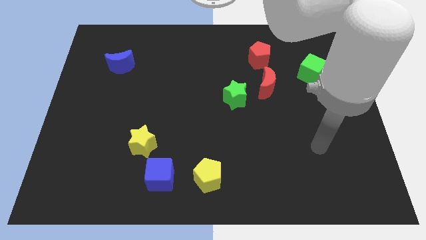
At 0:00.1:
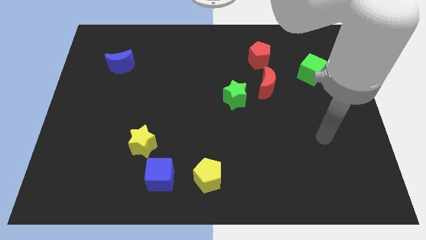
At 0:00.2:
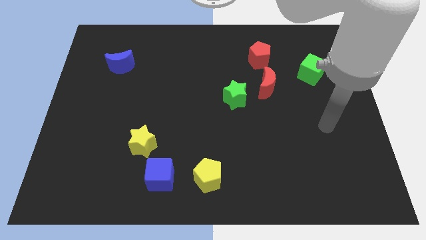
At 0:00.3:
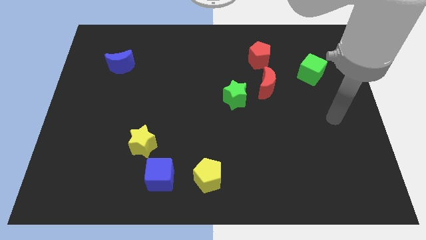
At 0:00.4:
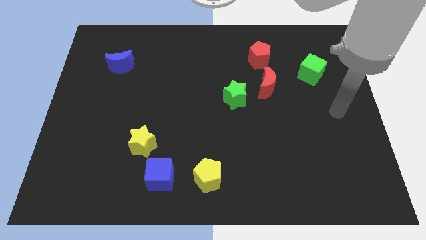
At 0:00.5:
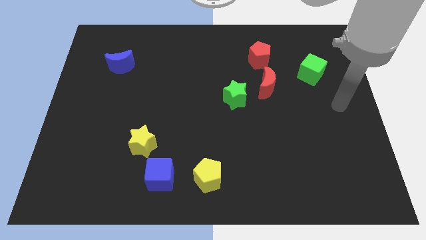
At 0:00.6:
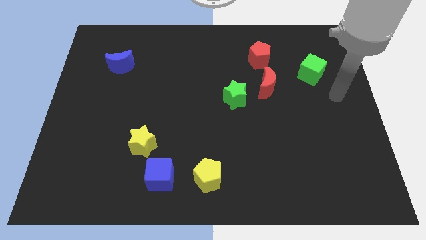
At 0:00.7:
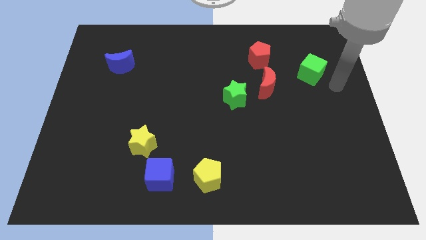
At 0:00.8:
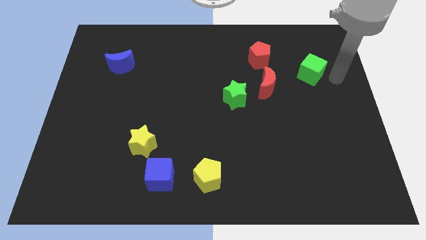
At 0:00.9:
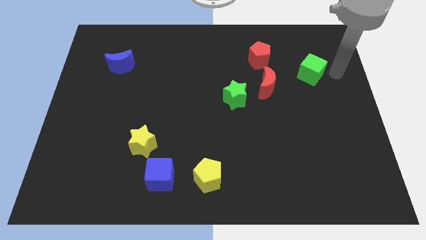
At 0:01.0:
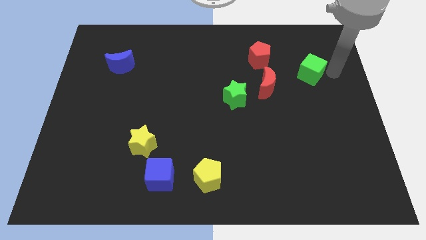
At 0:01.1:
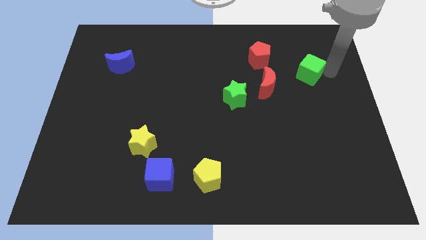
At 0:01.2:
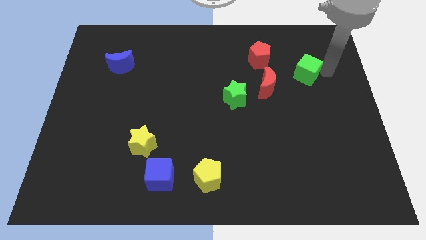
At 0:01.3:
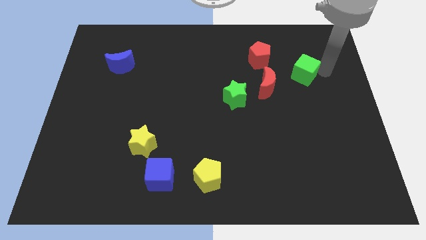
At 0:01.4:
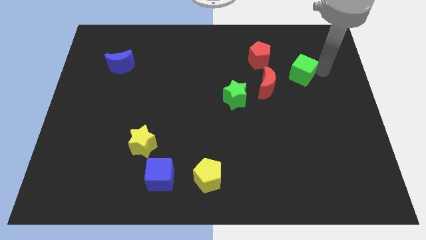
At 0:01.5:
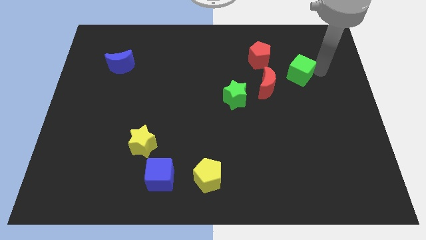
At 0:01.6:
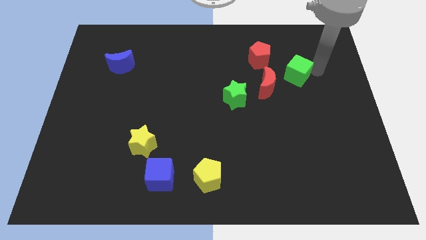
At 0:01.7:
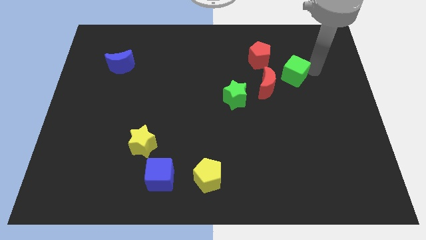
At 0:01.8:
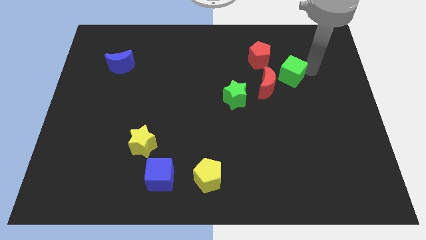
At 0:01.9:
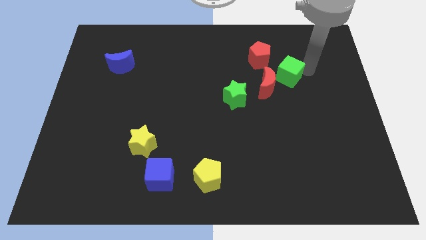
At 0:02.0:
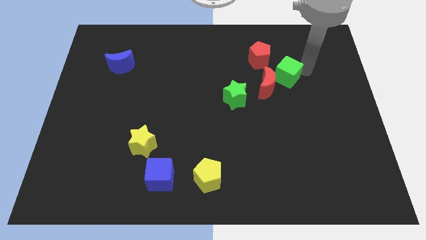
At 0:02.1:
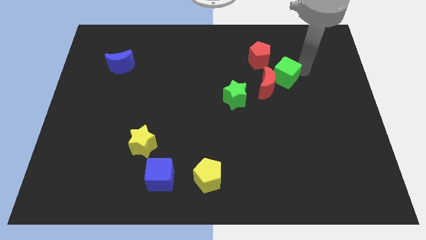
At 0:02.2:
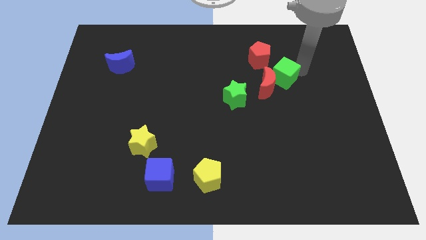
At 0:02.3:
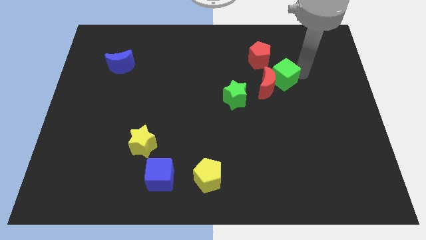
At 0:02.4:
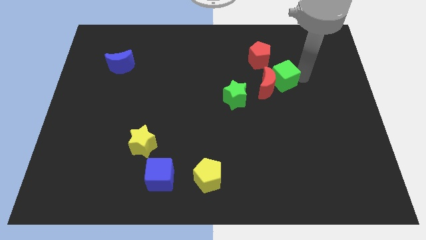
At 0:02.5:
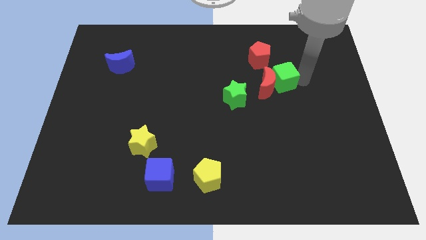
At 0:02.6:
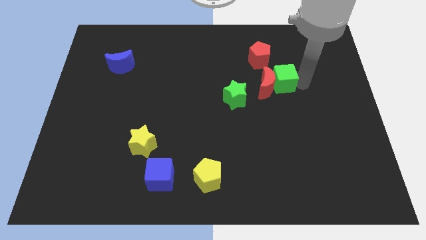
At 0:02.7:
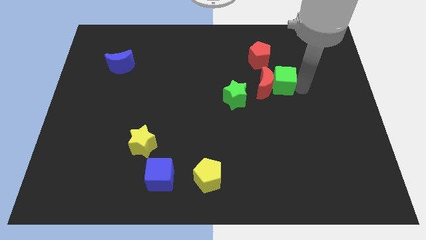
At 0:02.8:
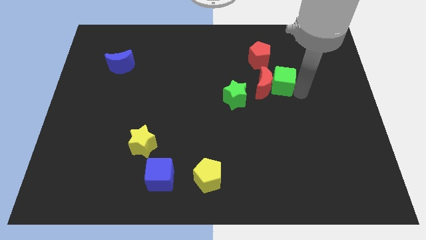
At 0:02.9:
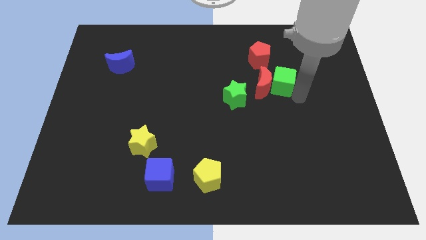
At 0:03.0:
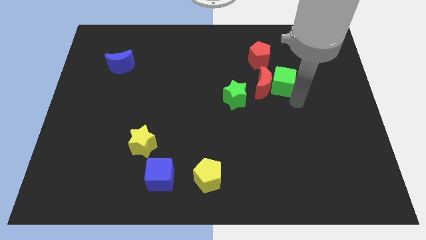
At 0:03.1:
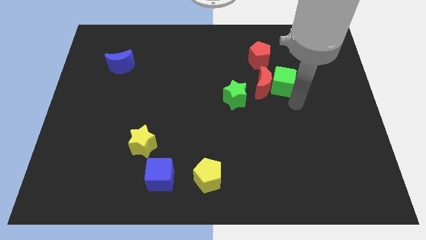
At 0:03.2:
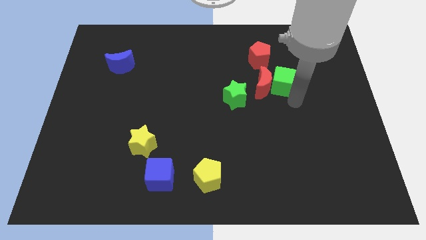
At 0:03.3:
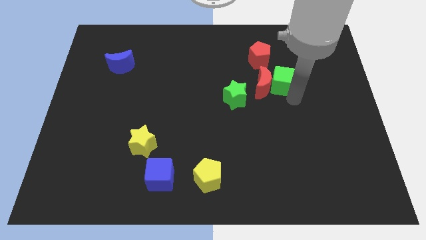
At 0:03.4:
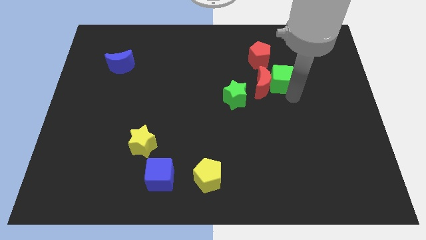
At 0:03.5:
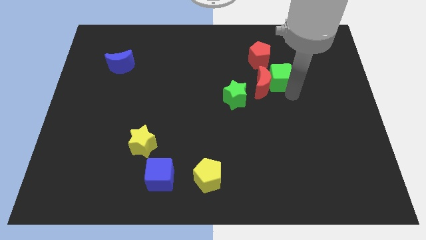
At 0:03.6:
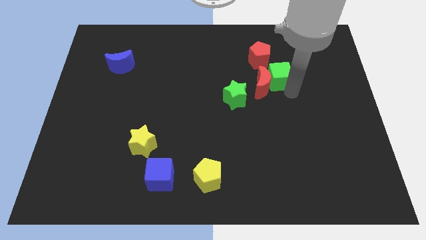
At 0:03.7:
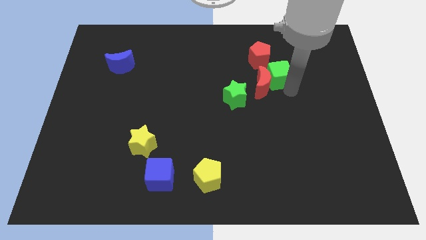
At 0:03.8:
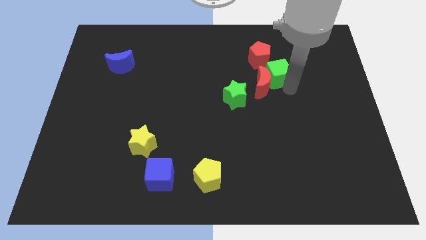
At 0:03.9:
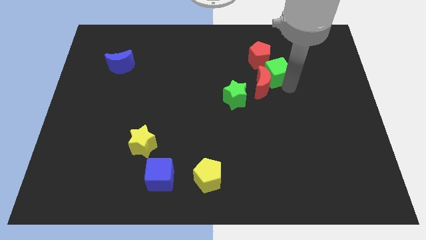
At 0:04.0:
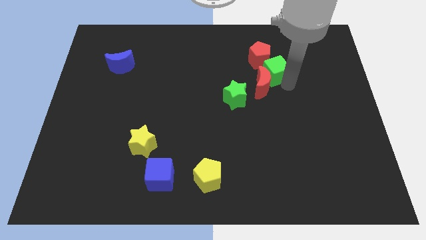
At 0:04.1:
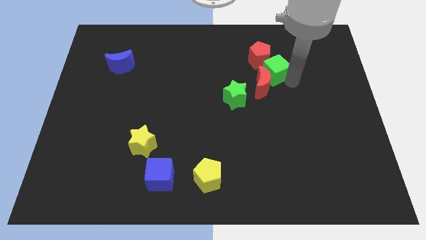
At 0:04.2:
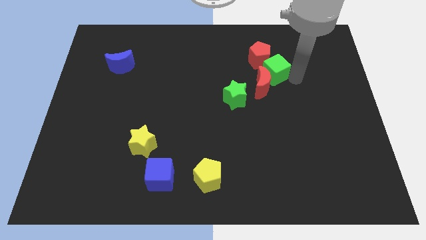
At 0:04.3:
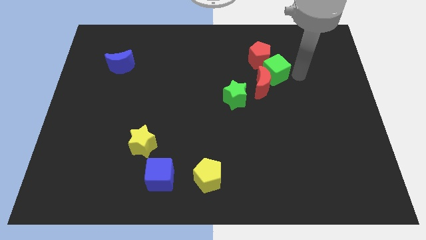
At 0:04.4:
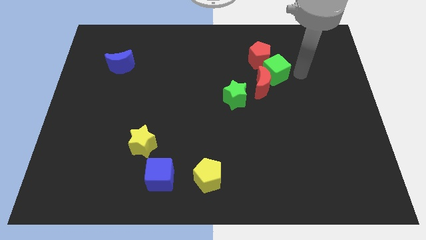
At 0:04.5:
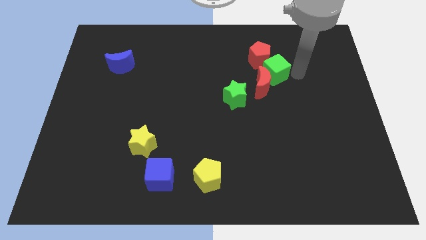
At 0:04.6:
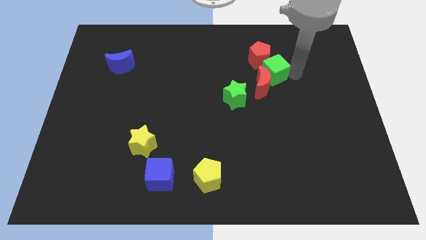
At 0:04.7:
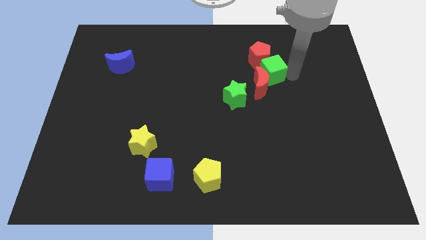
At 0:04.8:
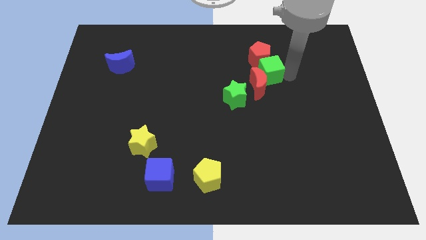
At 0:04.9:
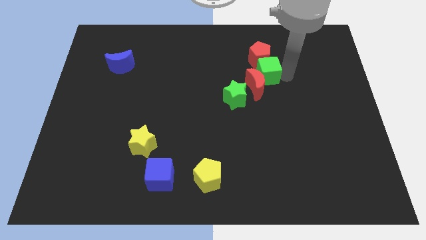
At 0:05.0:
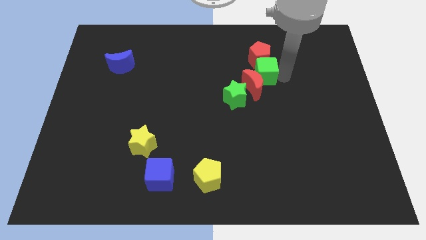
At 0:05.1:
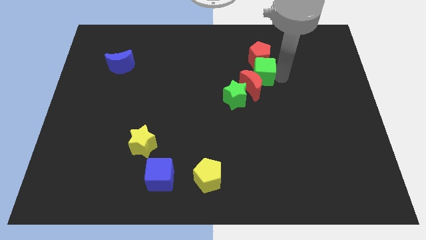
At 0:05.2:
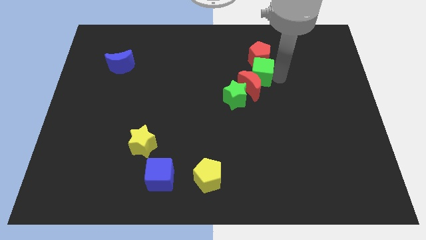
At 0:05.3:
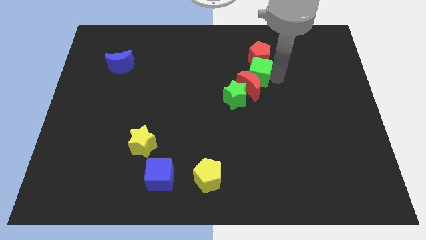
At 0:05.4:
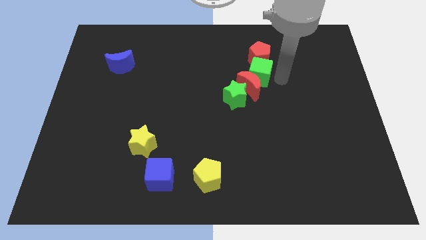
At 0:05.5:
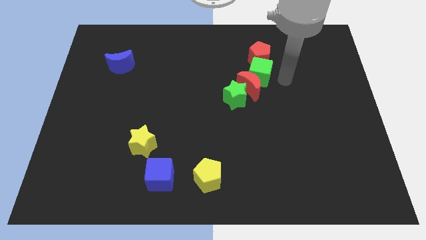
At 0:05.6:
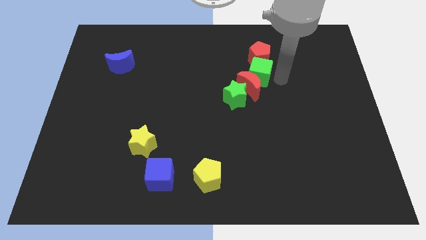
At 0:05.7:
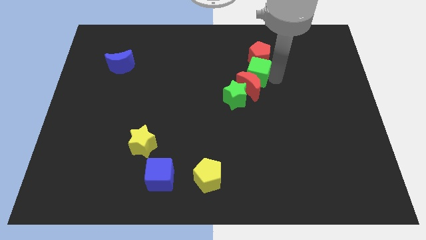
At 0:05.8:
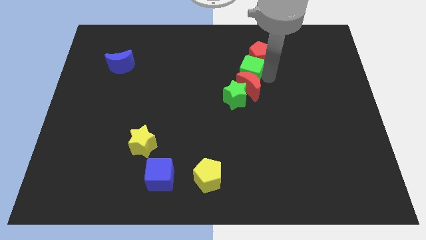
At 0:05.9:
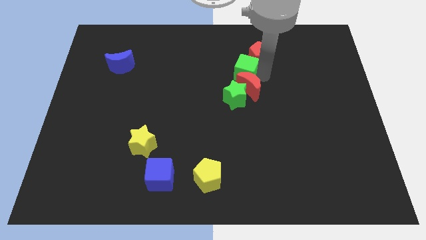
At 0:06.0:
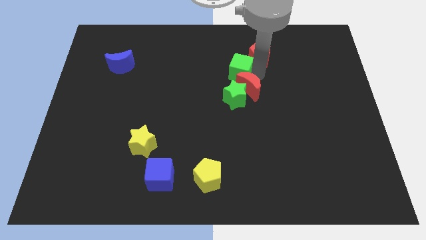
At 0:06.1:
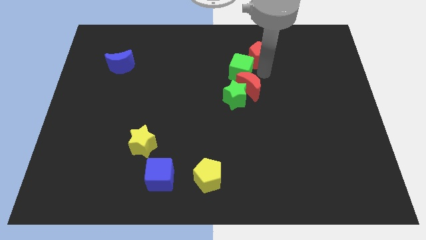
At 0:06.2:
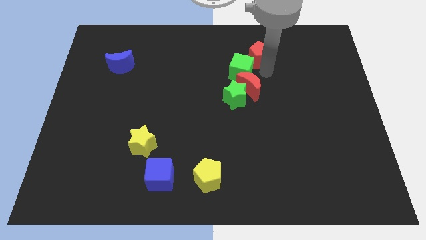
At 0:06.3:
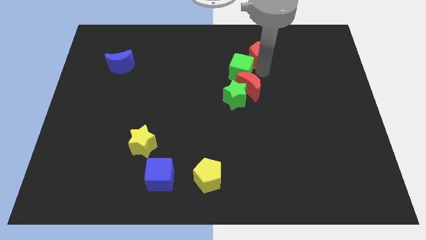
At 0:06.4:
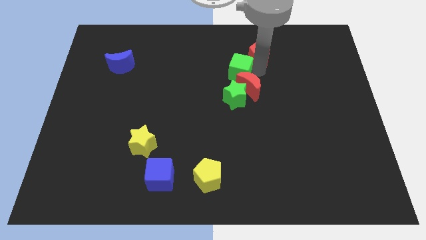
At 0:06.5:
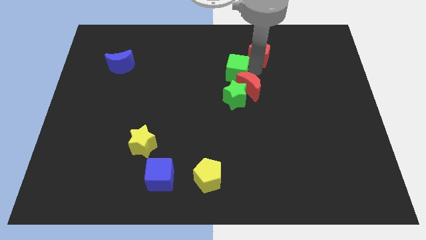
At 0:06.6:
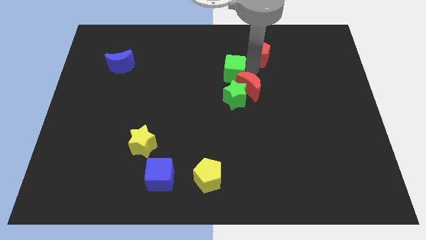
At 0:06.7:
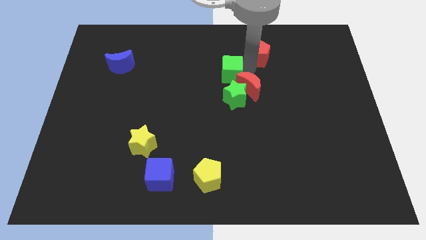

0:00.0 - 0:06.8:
slide the green cube to the left

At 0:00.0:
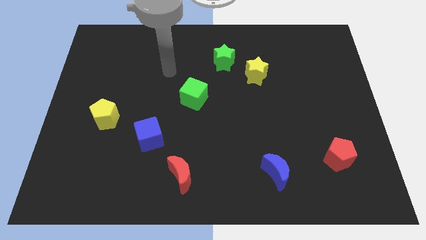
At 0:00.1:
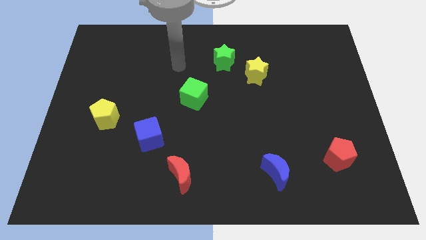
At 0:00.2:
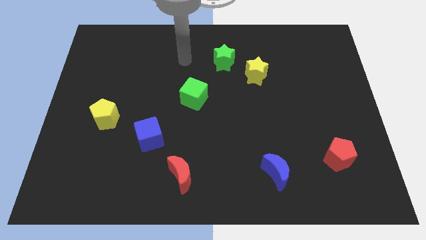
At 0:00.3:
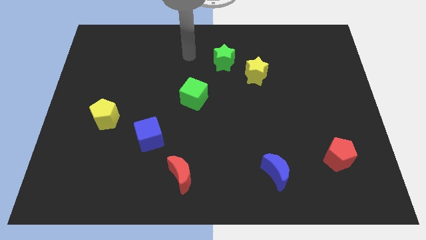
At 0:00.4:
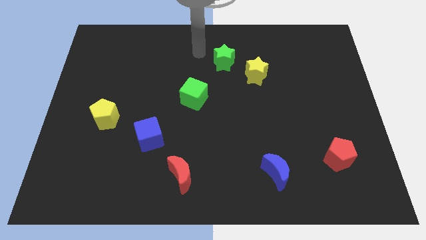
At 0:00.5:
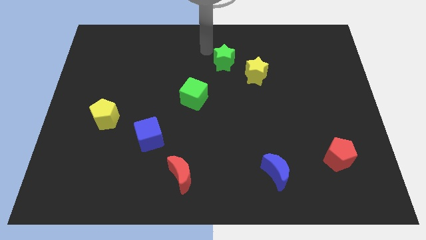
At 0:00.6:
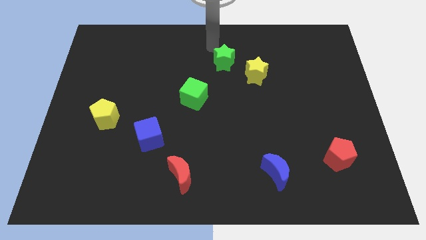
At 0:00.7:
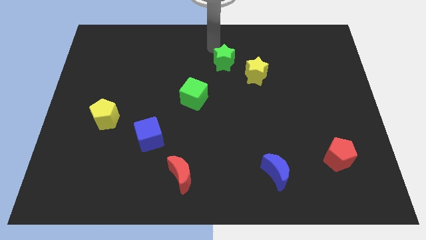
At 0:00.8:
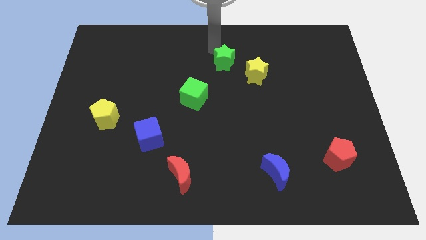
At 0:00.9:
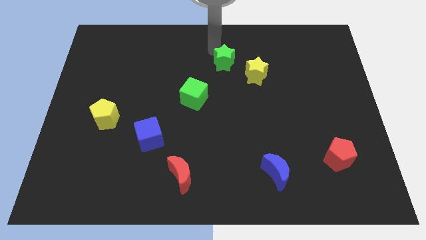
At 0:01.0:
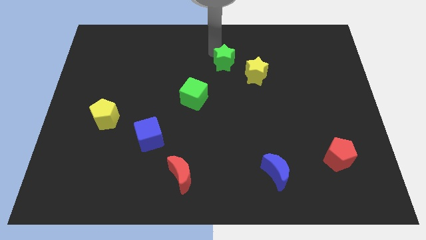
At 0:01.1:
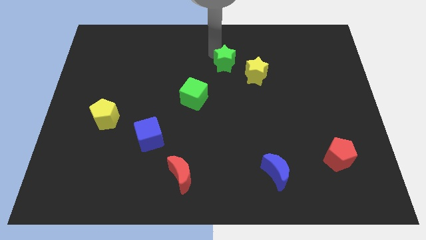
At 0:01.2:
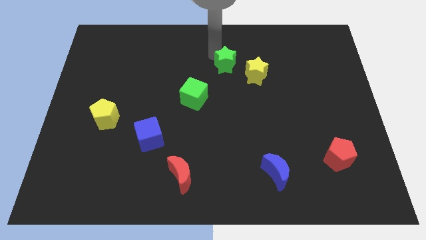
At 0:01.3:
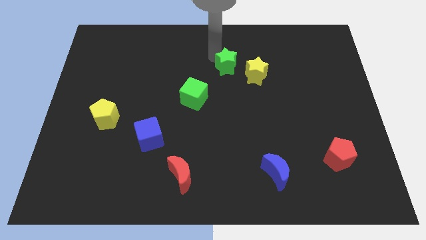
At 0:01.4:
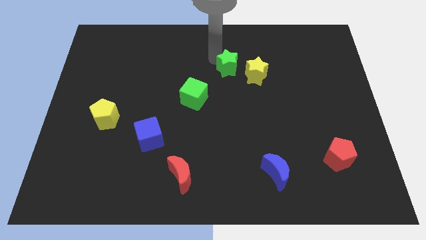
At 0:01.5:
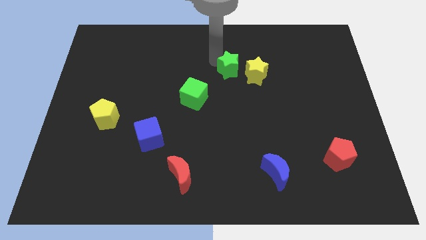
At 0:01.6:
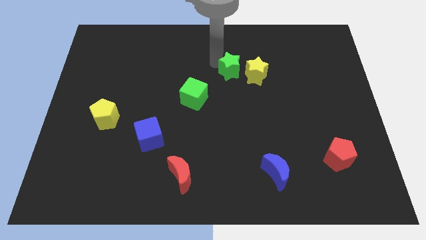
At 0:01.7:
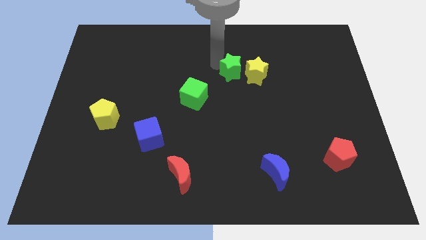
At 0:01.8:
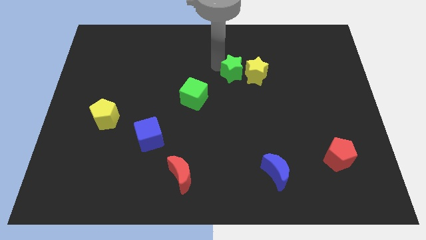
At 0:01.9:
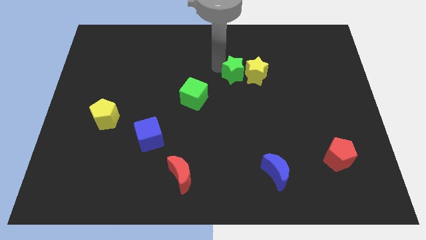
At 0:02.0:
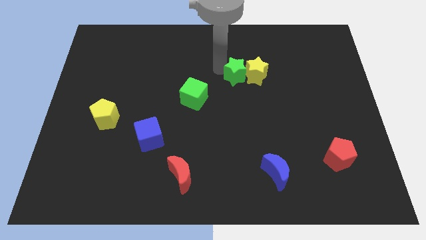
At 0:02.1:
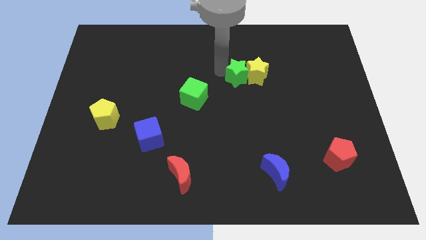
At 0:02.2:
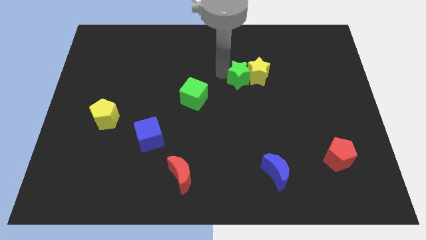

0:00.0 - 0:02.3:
move the green star diagonally down and to the right a bit
